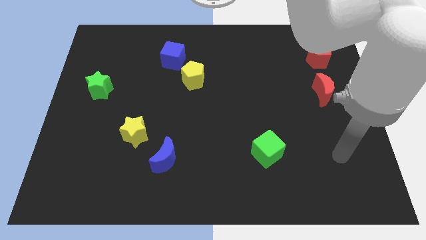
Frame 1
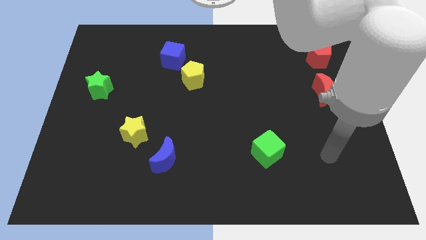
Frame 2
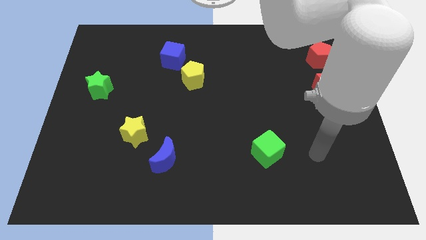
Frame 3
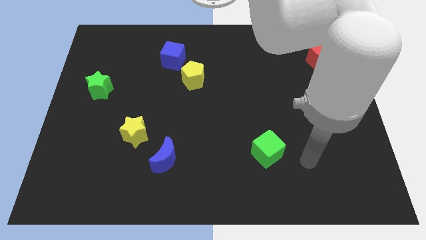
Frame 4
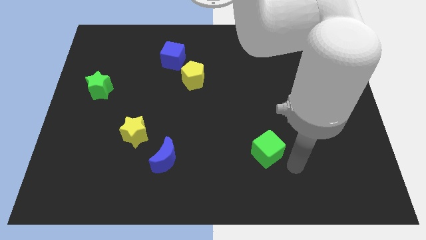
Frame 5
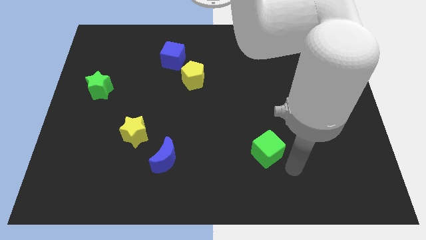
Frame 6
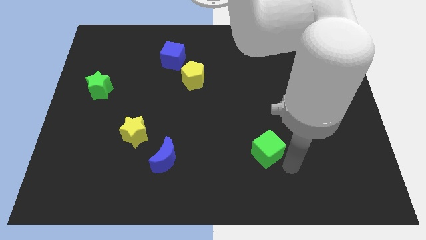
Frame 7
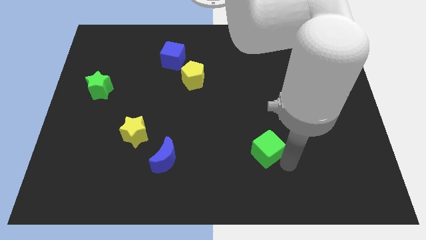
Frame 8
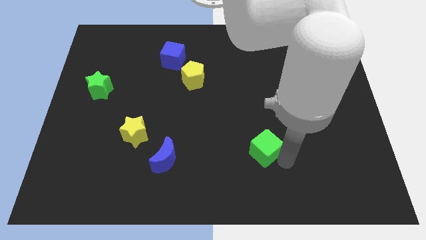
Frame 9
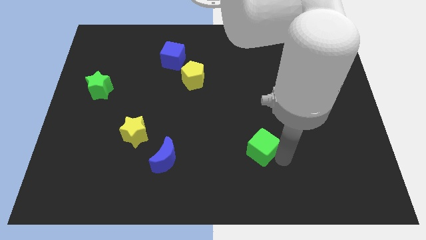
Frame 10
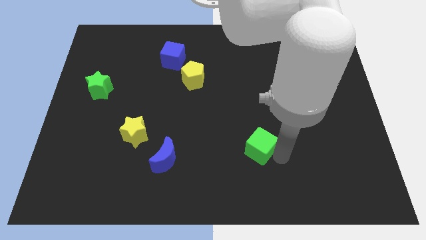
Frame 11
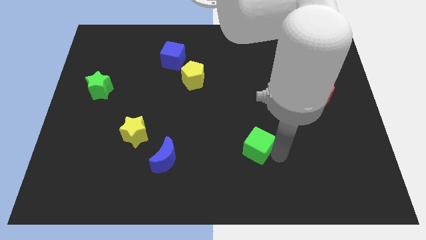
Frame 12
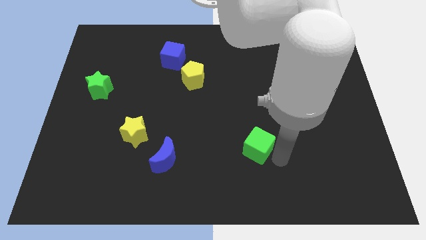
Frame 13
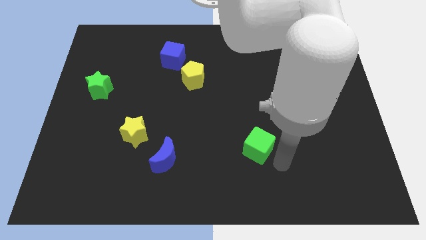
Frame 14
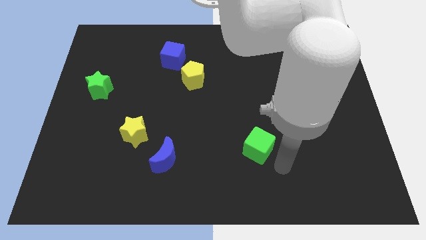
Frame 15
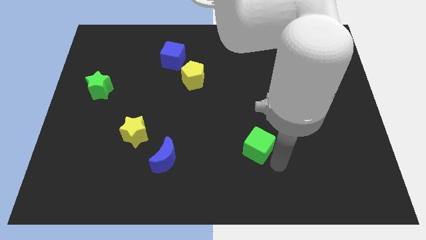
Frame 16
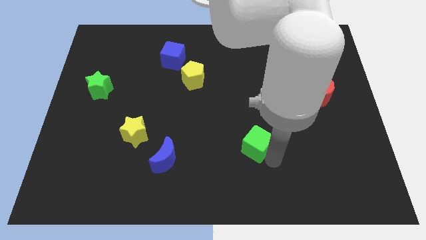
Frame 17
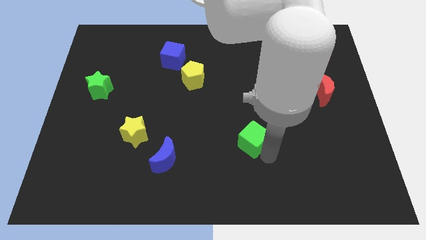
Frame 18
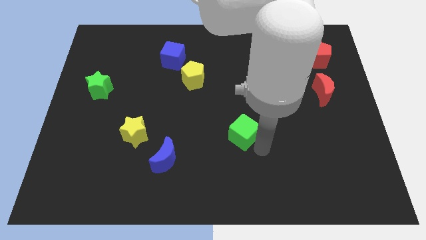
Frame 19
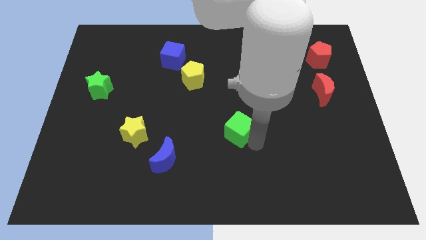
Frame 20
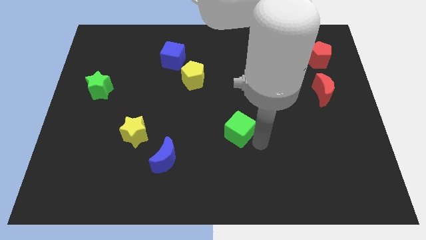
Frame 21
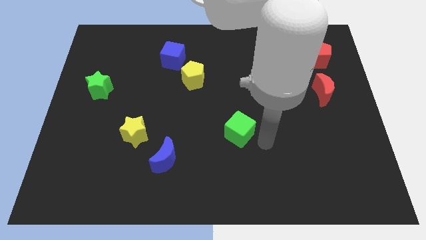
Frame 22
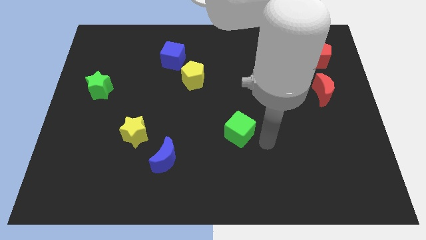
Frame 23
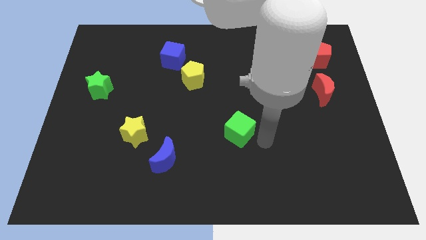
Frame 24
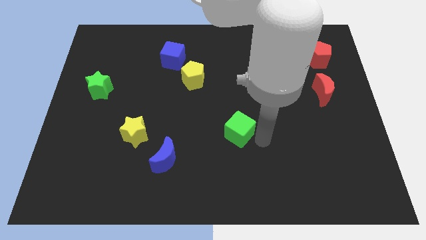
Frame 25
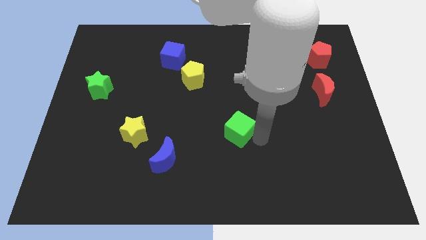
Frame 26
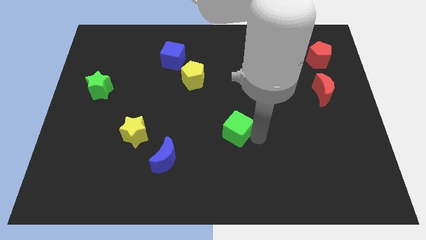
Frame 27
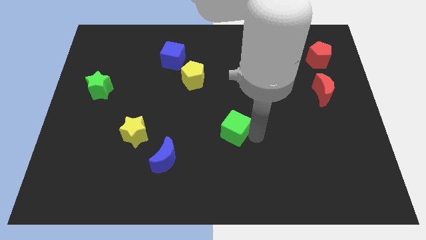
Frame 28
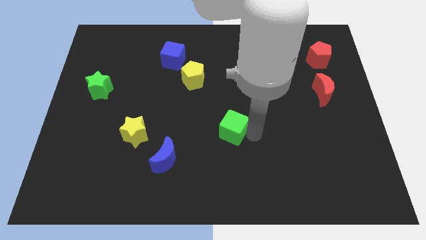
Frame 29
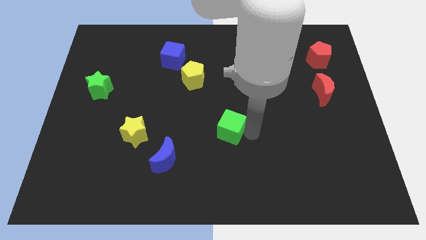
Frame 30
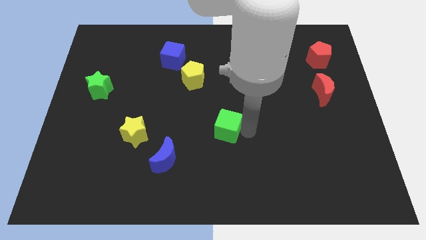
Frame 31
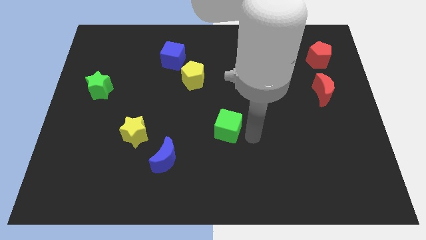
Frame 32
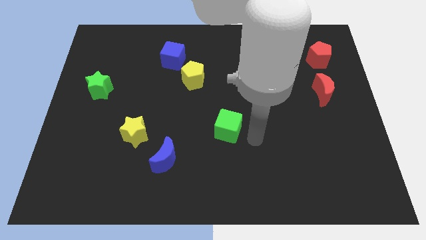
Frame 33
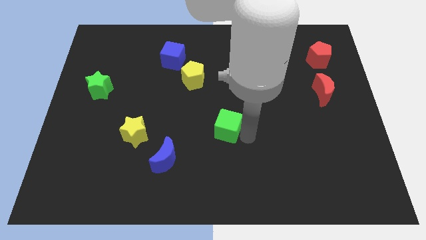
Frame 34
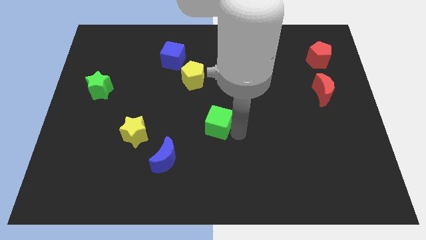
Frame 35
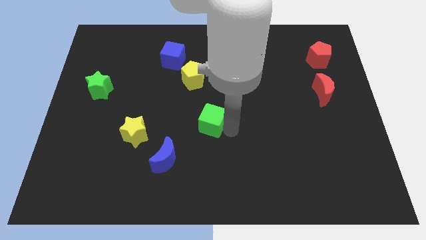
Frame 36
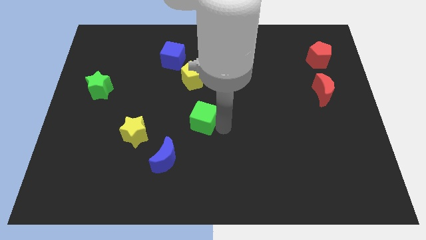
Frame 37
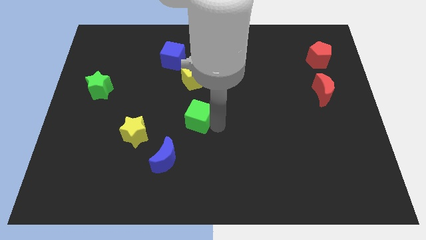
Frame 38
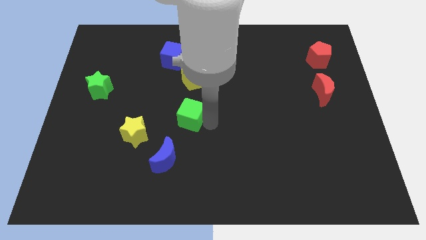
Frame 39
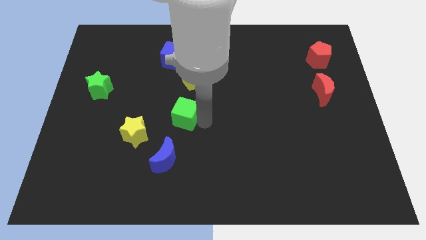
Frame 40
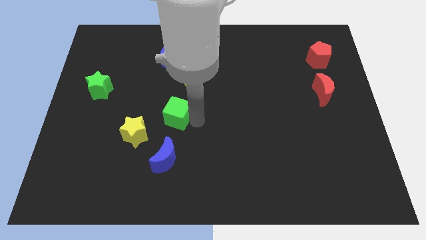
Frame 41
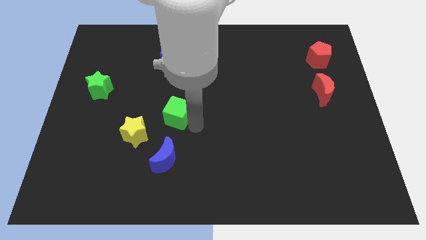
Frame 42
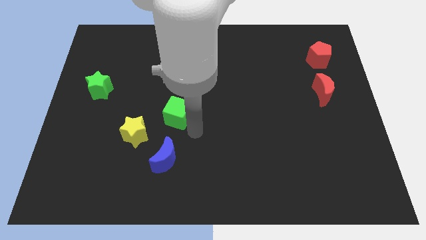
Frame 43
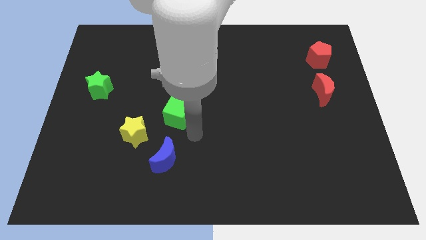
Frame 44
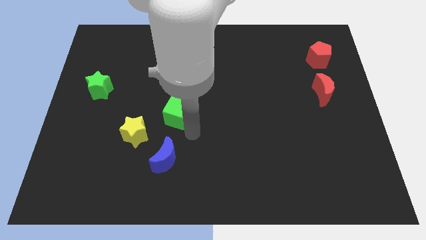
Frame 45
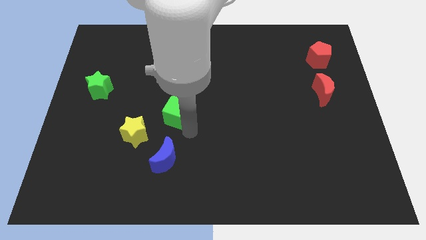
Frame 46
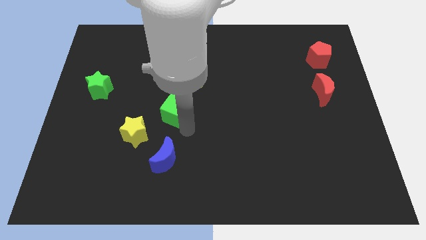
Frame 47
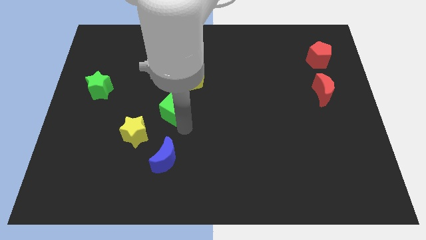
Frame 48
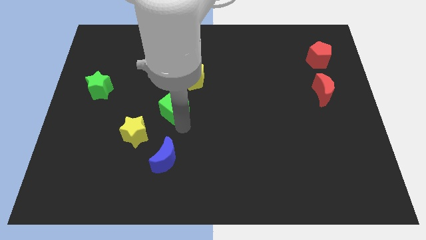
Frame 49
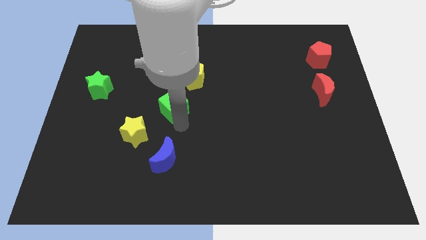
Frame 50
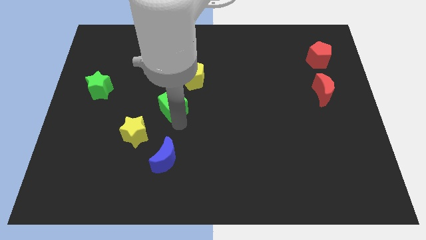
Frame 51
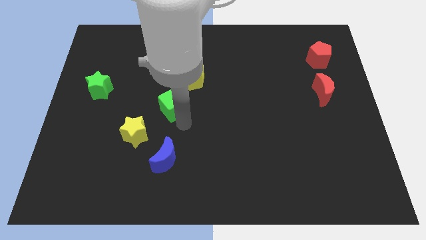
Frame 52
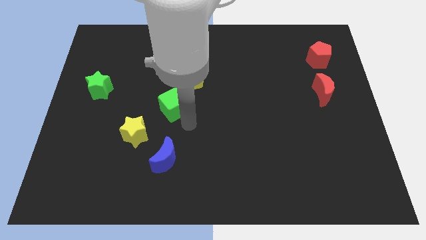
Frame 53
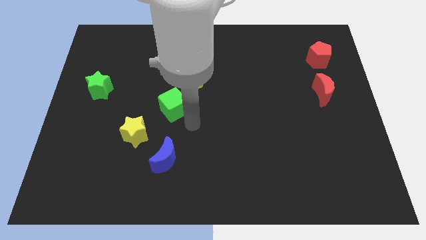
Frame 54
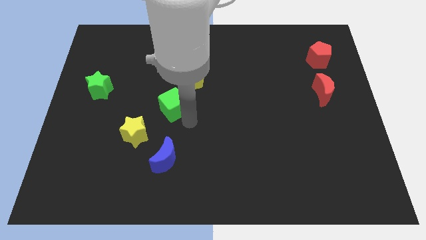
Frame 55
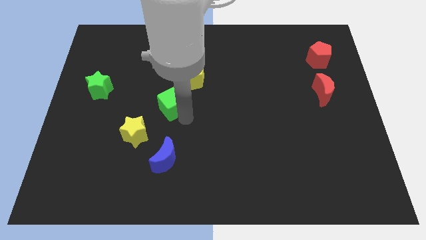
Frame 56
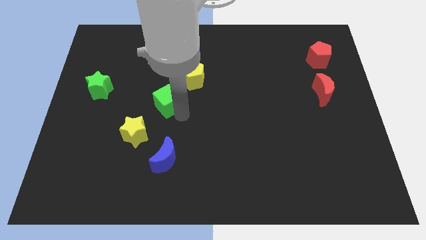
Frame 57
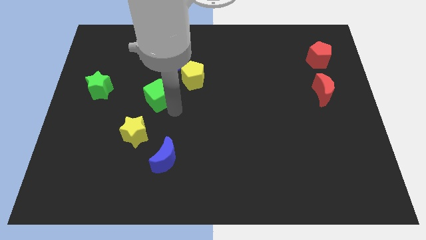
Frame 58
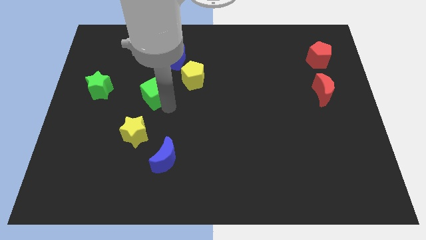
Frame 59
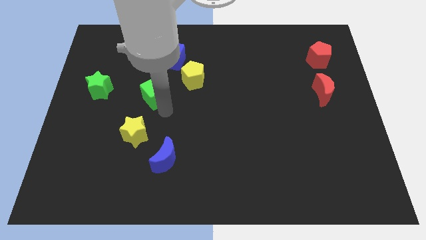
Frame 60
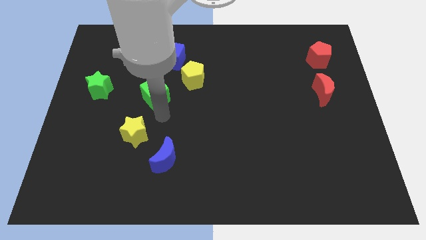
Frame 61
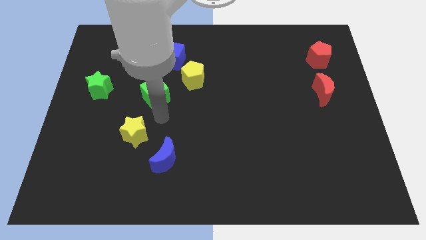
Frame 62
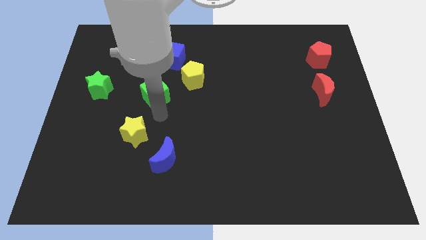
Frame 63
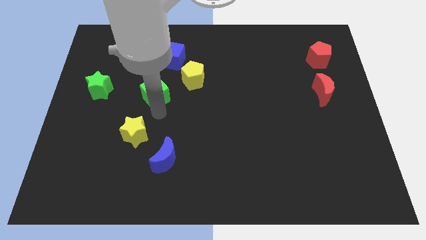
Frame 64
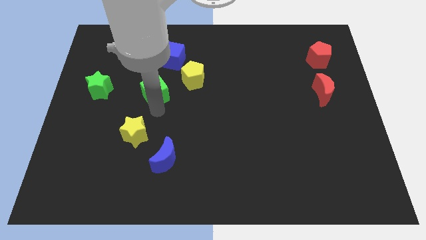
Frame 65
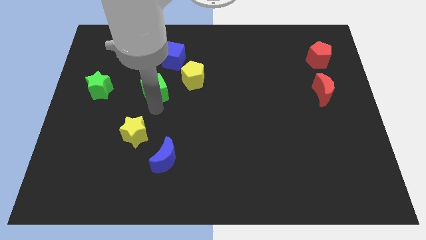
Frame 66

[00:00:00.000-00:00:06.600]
put the green cube to the left side of the yellow pentagon
